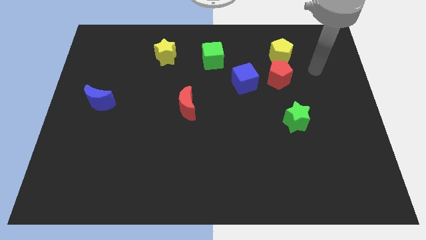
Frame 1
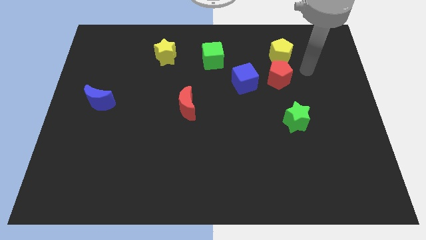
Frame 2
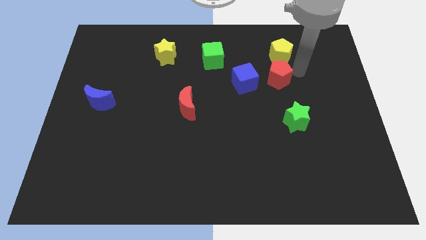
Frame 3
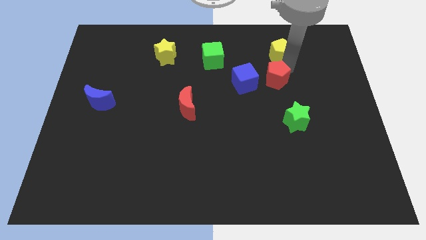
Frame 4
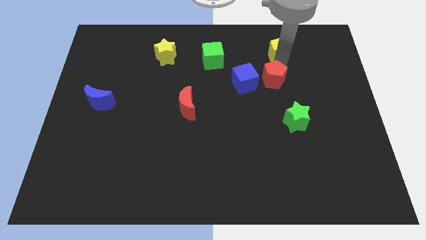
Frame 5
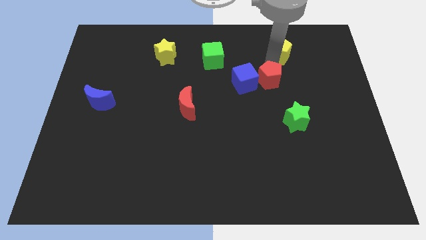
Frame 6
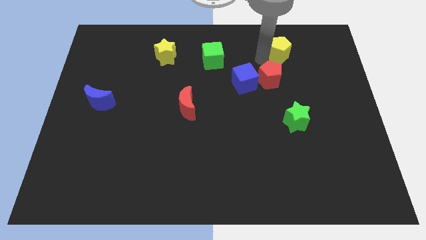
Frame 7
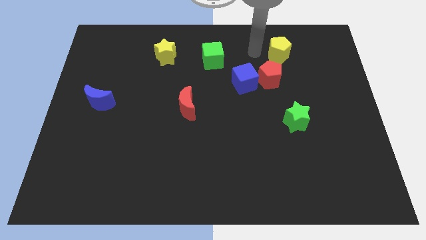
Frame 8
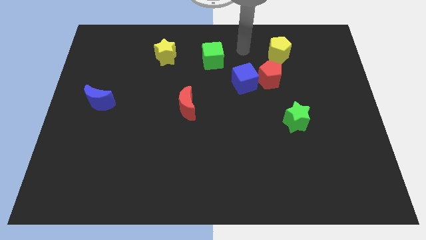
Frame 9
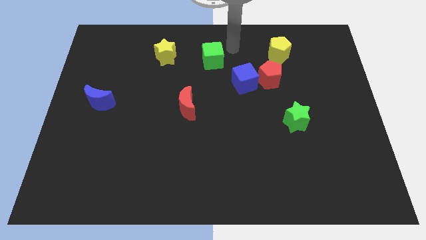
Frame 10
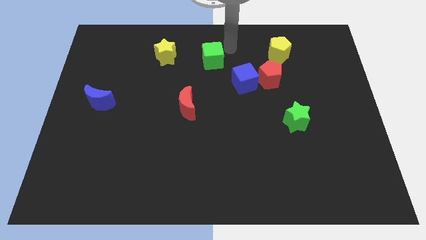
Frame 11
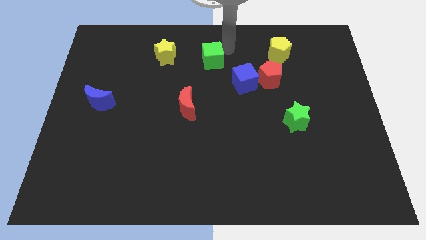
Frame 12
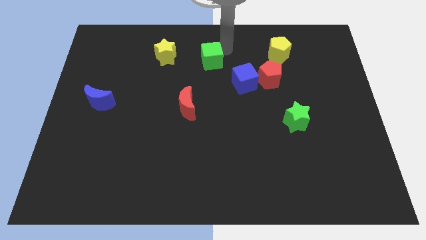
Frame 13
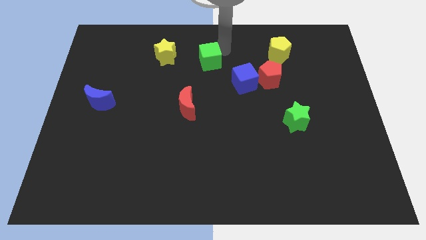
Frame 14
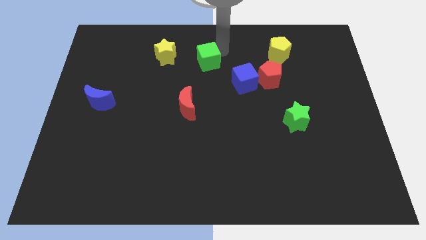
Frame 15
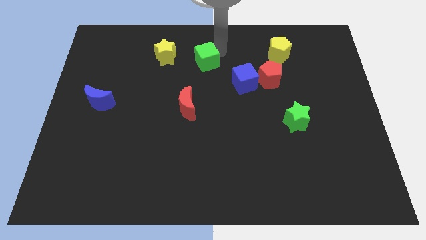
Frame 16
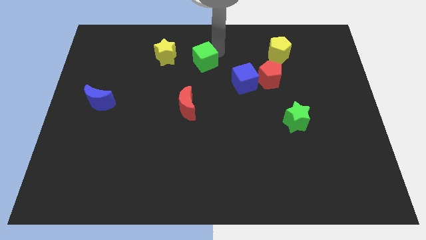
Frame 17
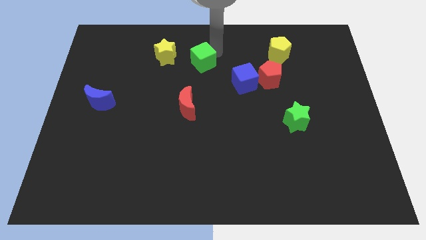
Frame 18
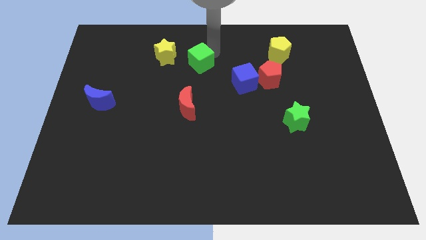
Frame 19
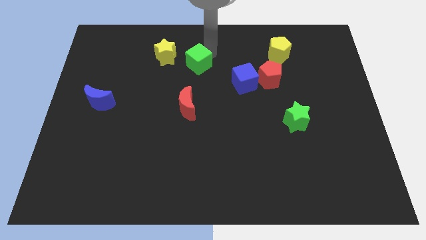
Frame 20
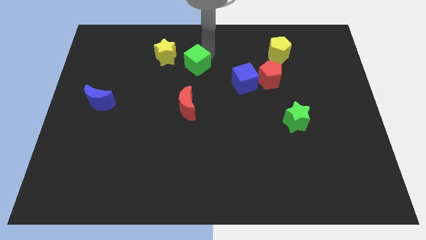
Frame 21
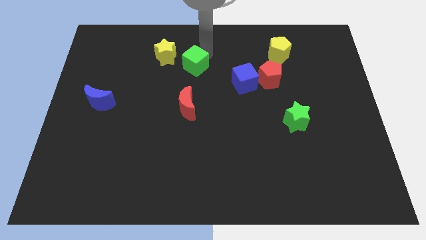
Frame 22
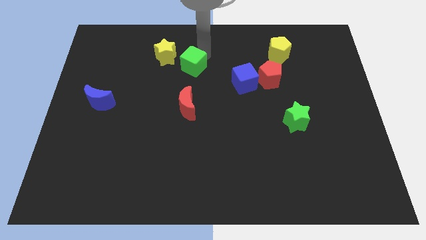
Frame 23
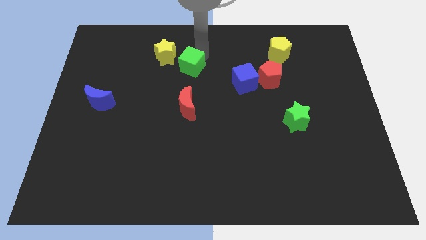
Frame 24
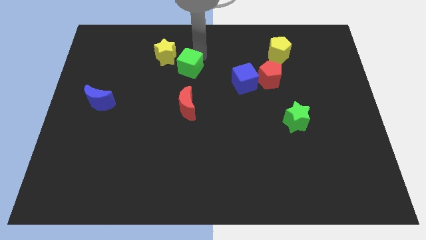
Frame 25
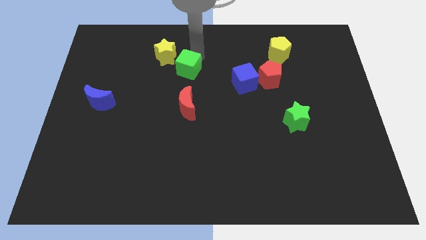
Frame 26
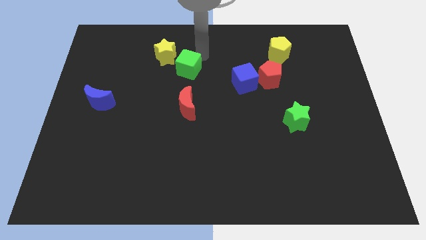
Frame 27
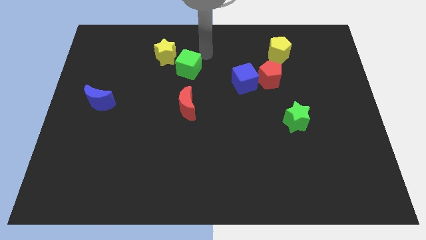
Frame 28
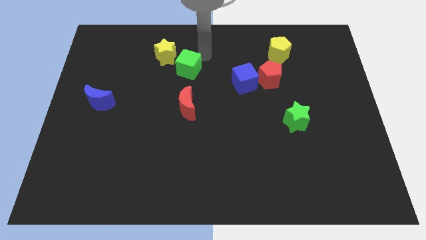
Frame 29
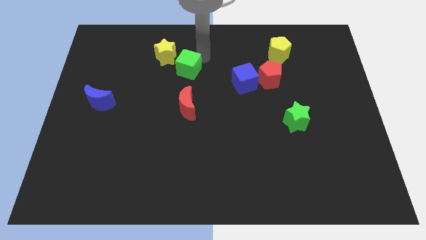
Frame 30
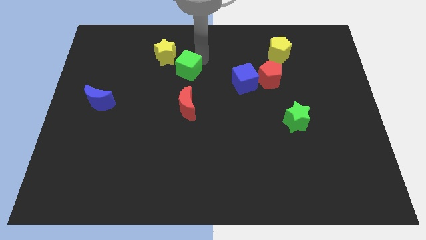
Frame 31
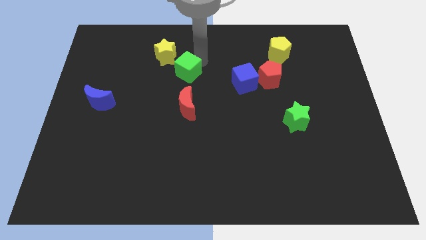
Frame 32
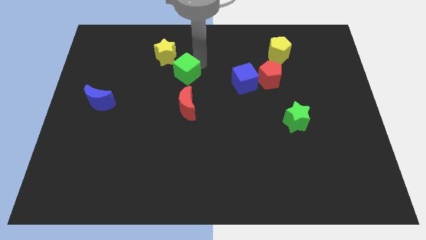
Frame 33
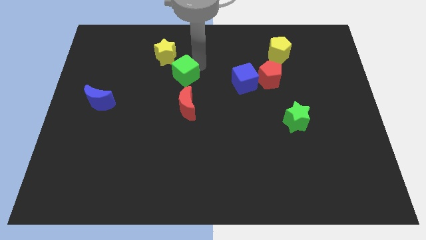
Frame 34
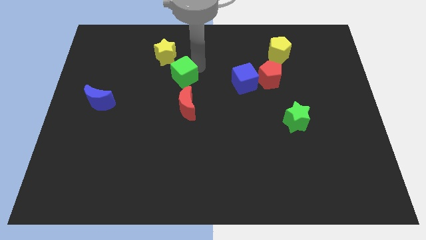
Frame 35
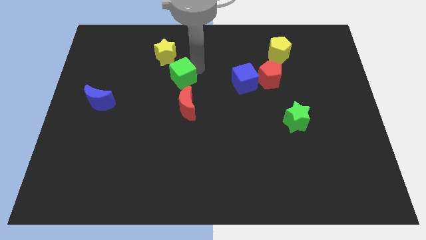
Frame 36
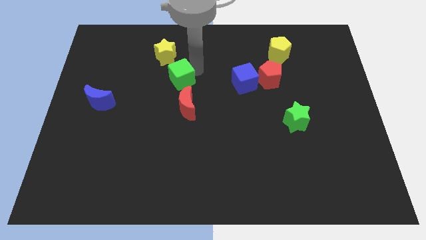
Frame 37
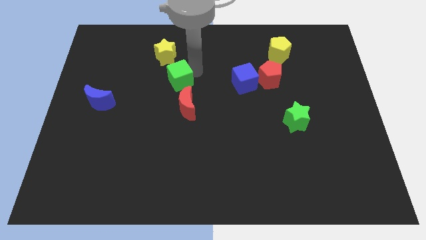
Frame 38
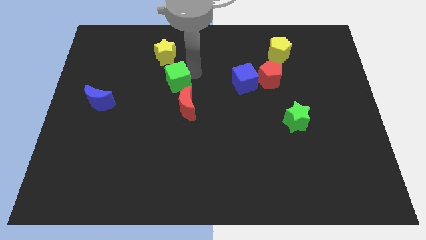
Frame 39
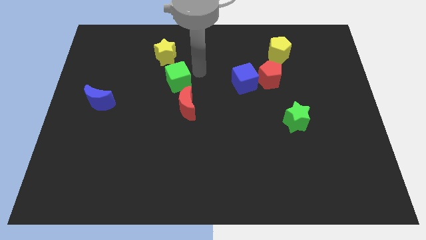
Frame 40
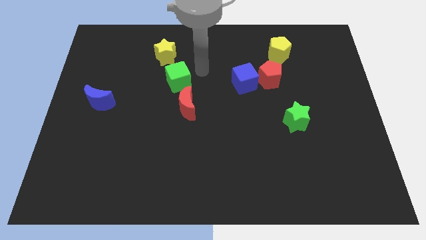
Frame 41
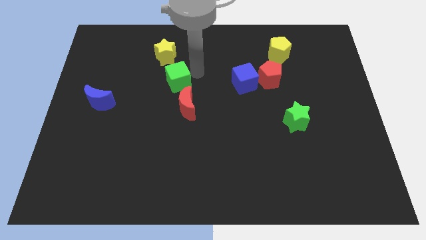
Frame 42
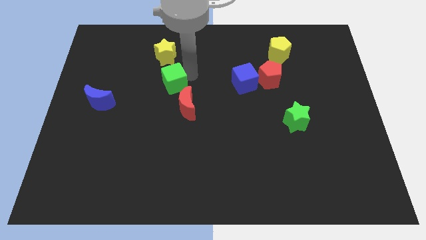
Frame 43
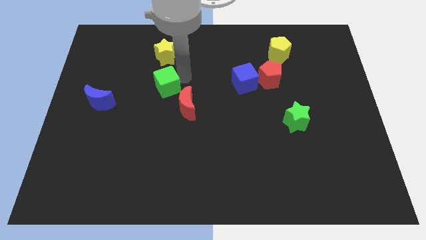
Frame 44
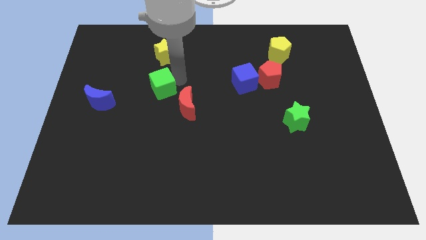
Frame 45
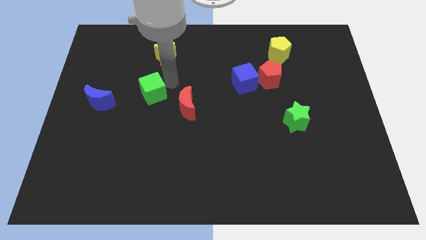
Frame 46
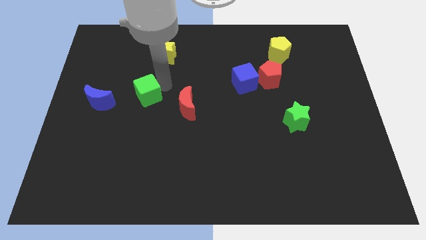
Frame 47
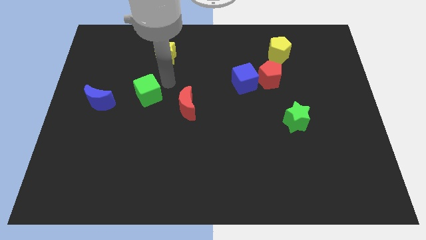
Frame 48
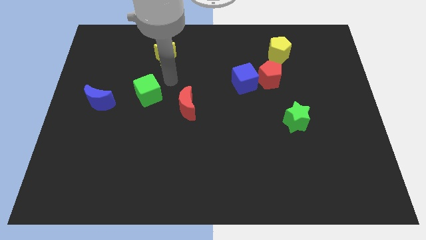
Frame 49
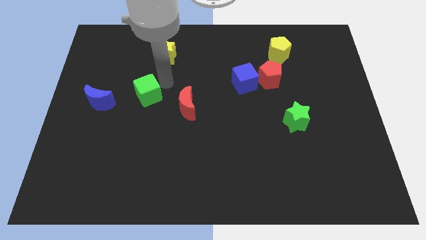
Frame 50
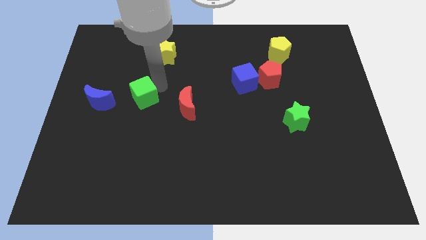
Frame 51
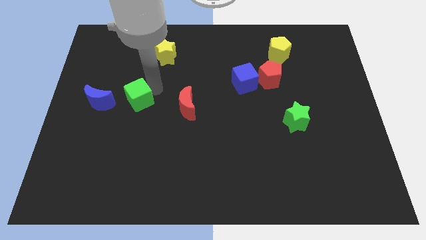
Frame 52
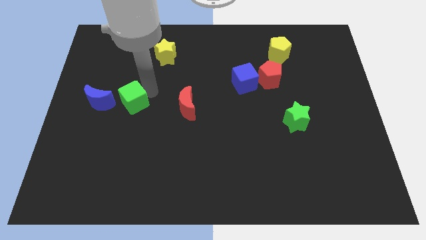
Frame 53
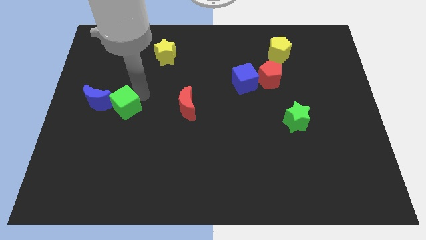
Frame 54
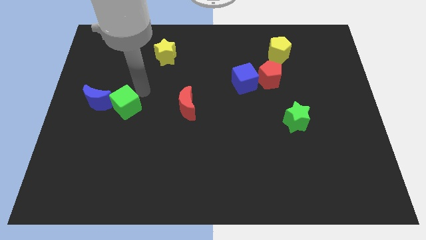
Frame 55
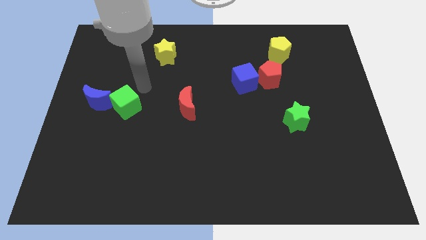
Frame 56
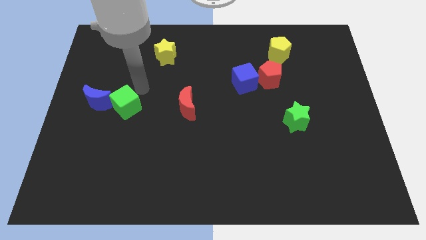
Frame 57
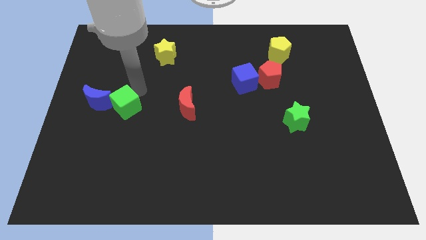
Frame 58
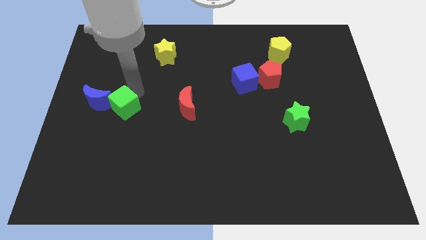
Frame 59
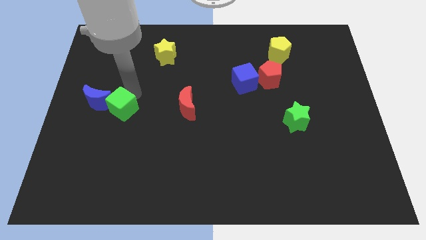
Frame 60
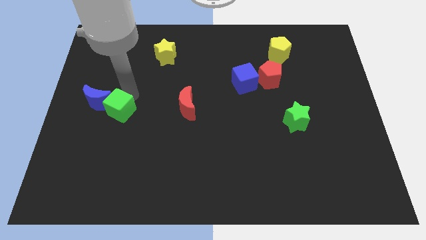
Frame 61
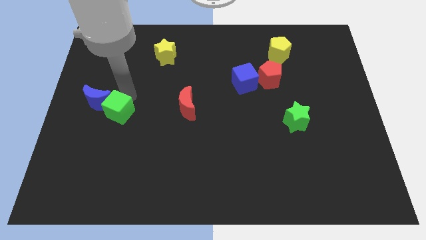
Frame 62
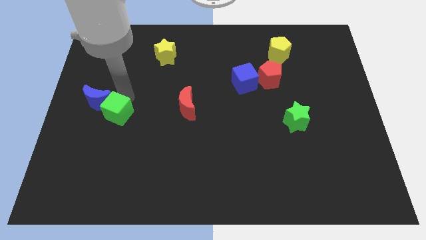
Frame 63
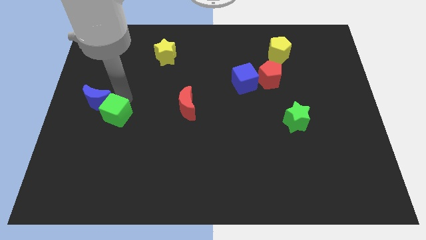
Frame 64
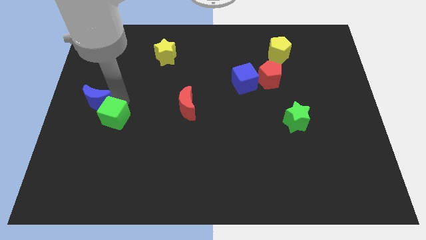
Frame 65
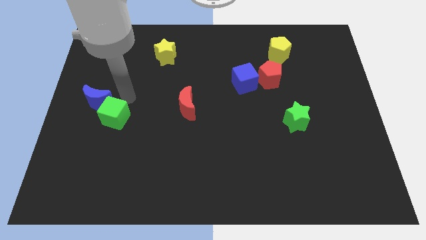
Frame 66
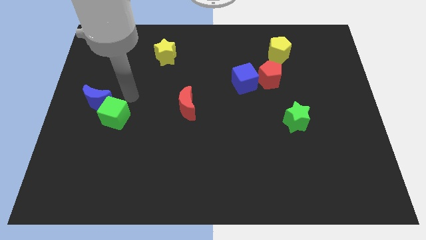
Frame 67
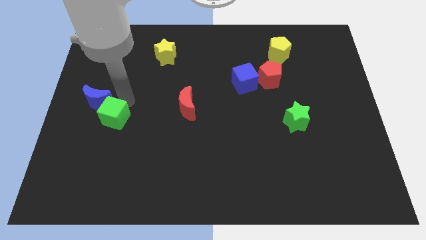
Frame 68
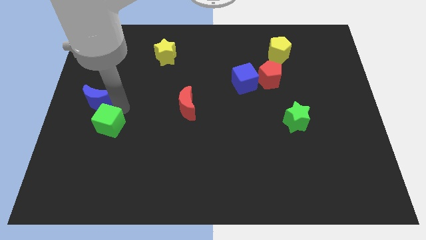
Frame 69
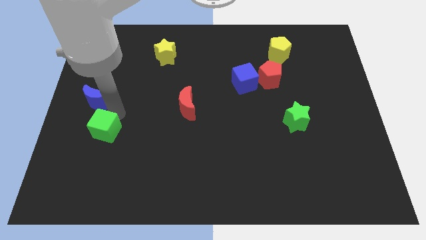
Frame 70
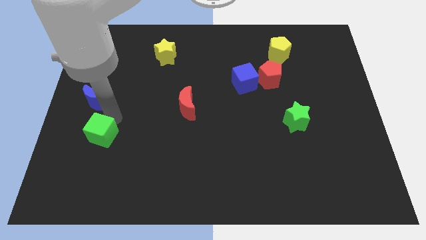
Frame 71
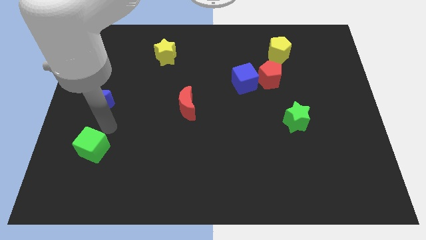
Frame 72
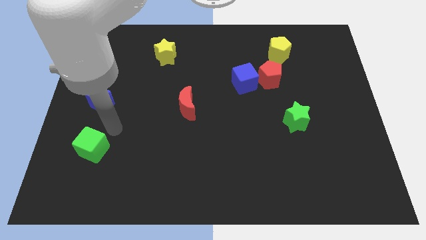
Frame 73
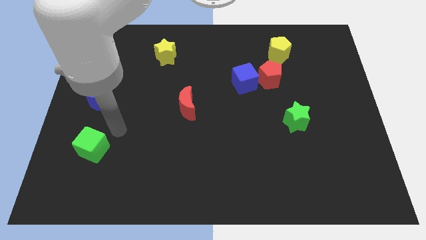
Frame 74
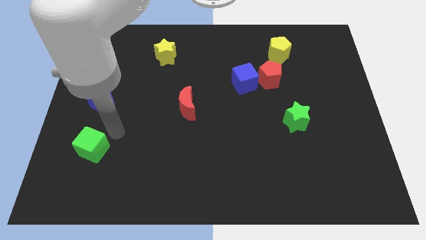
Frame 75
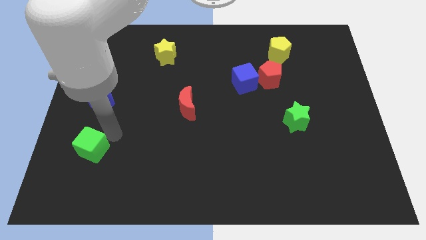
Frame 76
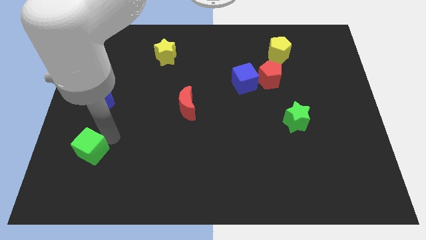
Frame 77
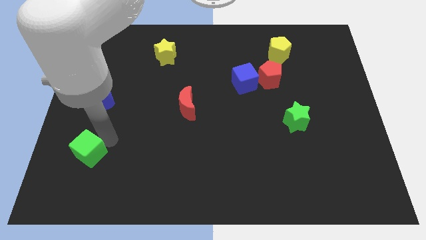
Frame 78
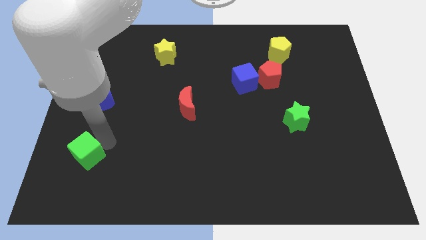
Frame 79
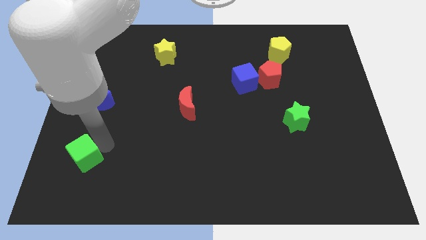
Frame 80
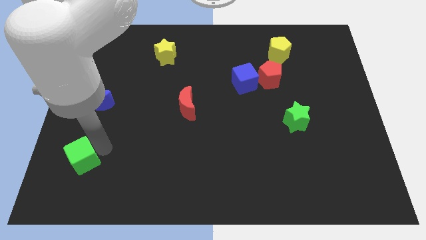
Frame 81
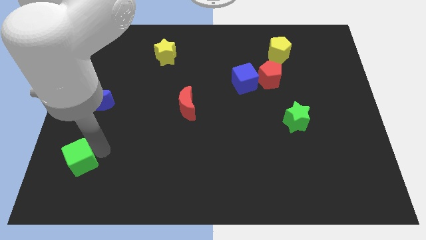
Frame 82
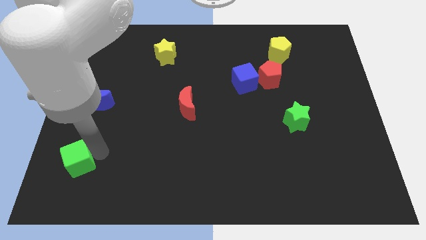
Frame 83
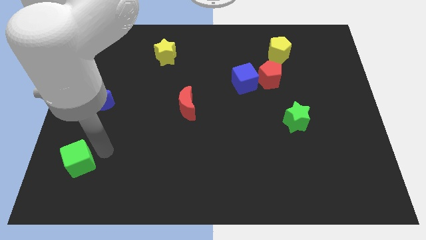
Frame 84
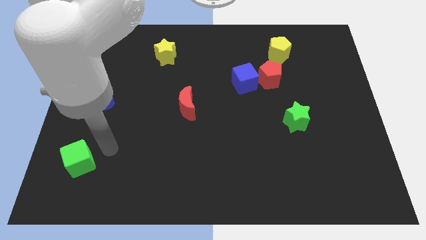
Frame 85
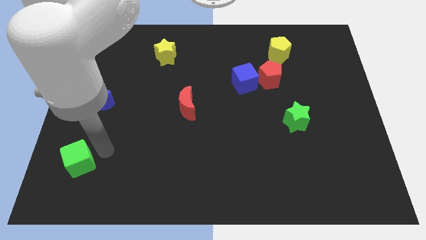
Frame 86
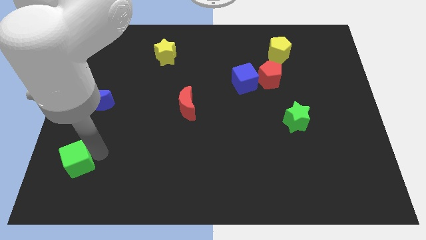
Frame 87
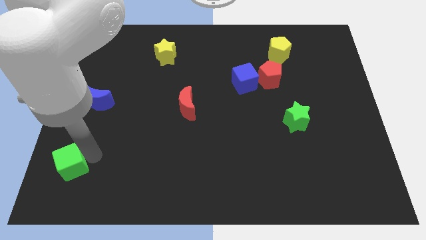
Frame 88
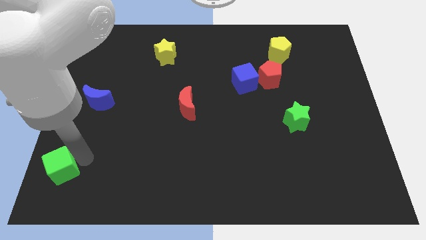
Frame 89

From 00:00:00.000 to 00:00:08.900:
push the green cube to the bottom left
